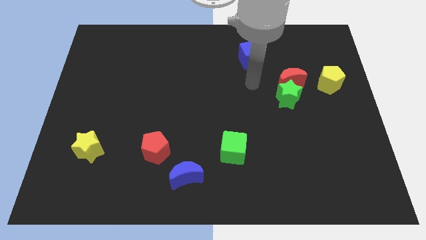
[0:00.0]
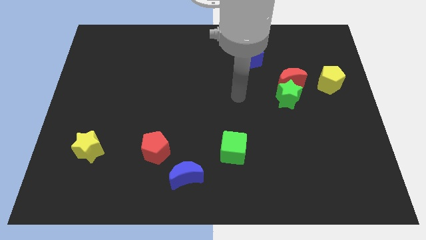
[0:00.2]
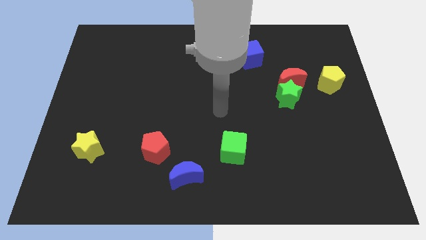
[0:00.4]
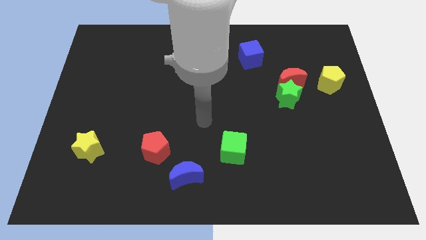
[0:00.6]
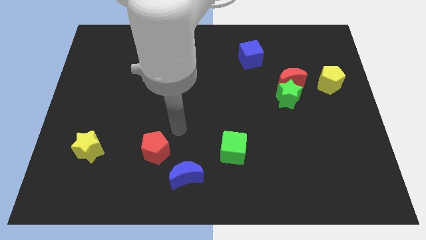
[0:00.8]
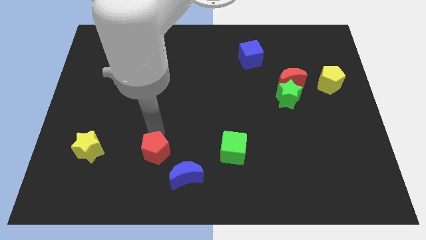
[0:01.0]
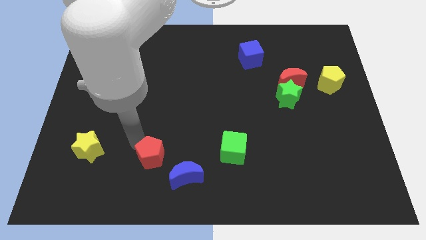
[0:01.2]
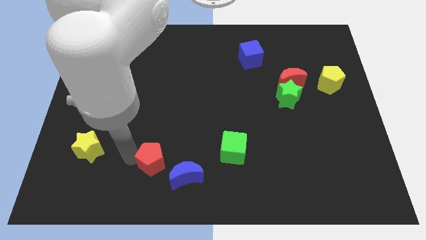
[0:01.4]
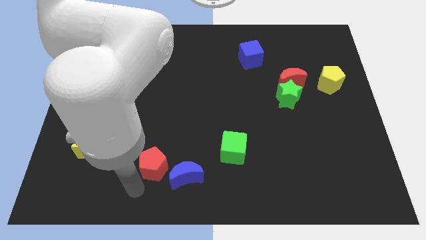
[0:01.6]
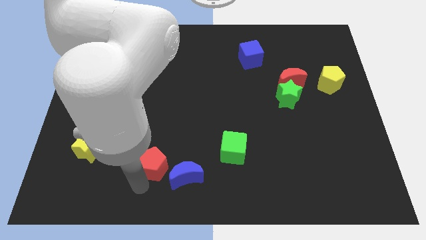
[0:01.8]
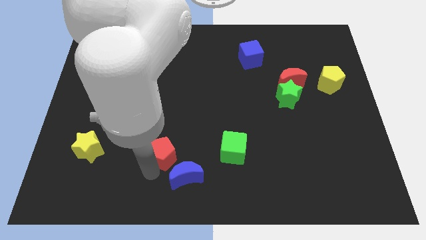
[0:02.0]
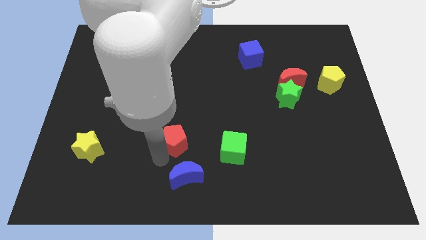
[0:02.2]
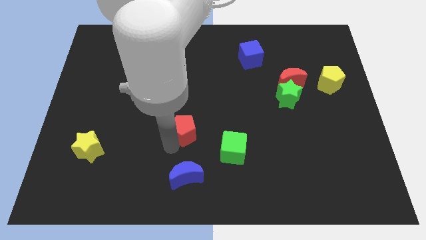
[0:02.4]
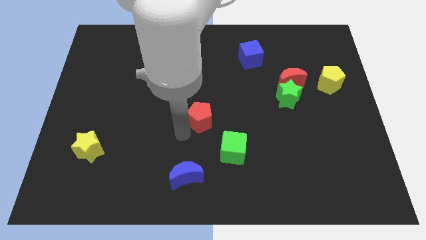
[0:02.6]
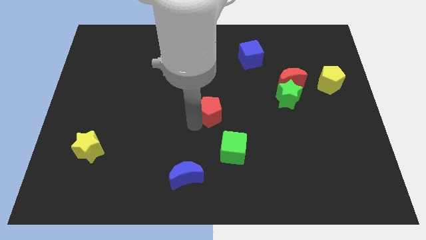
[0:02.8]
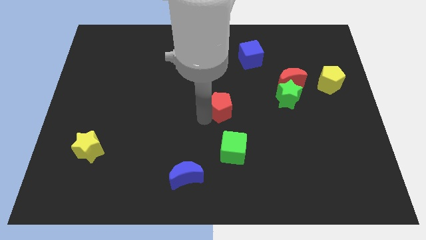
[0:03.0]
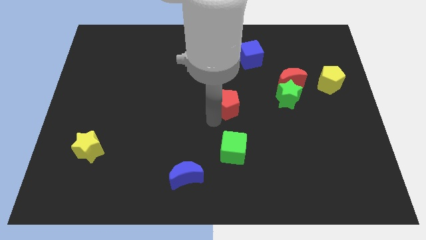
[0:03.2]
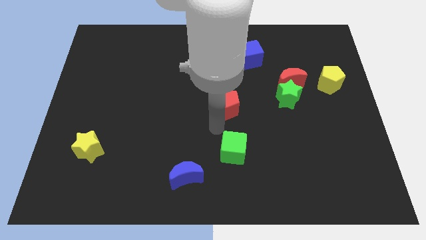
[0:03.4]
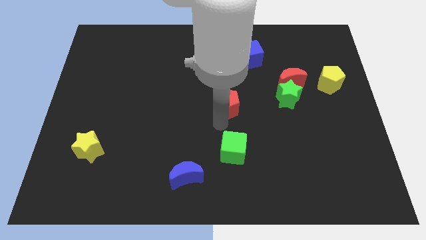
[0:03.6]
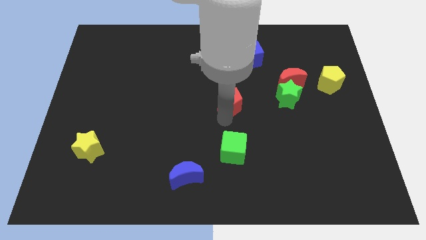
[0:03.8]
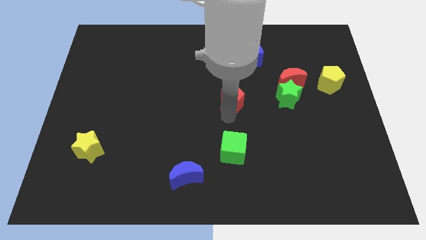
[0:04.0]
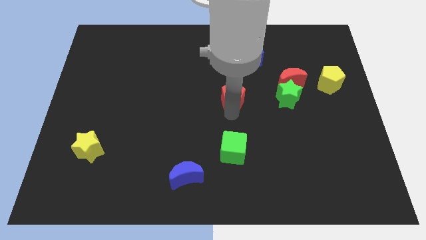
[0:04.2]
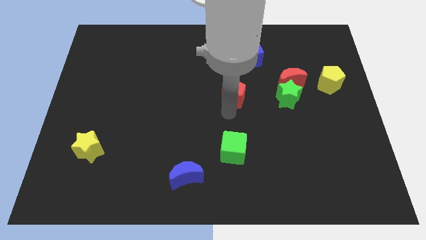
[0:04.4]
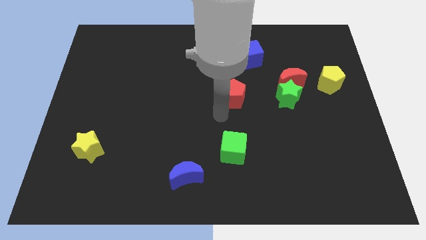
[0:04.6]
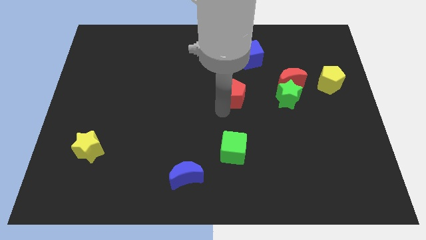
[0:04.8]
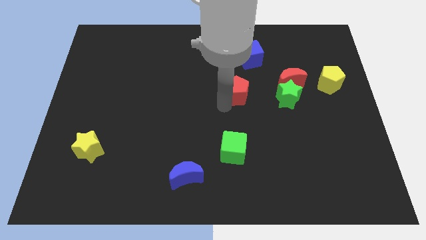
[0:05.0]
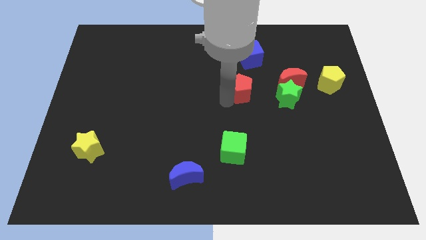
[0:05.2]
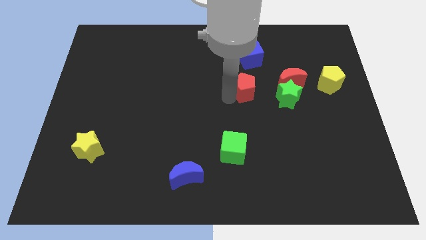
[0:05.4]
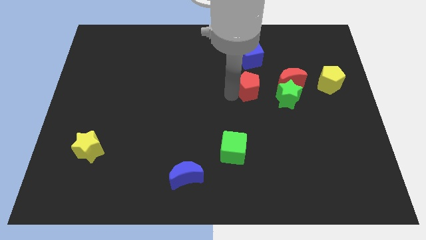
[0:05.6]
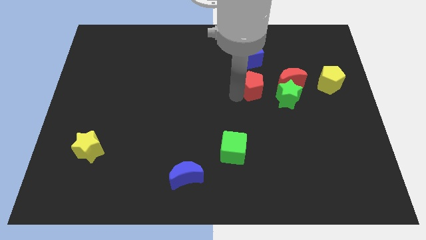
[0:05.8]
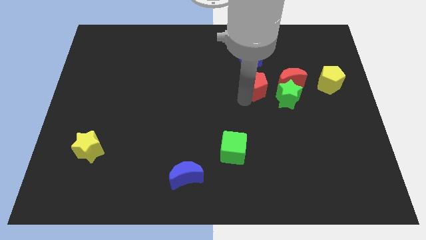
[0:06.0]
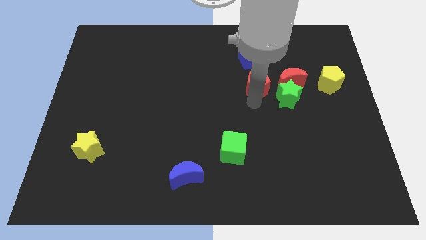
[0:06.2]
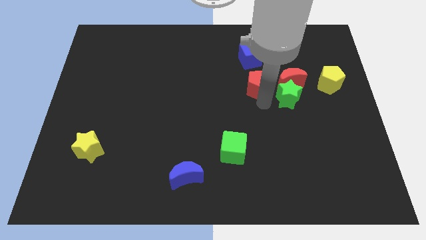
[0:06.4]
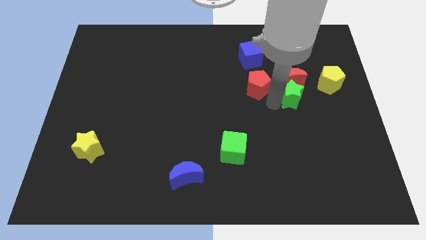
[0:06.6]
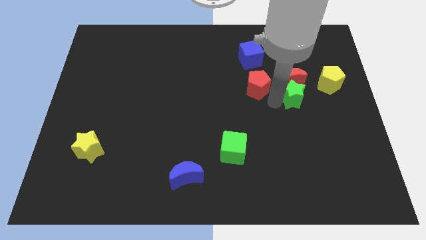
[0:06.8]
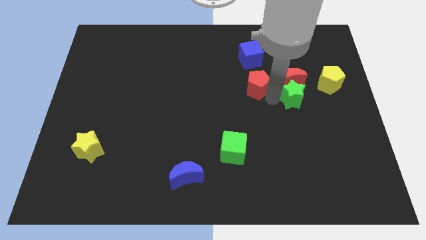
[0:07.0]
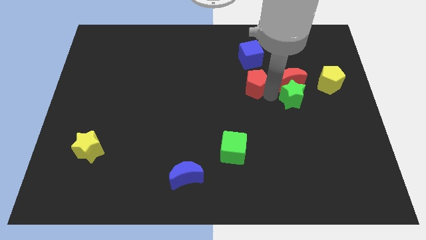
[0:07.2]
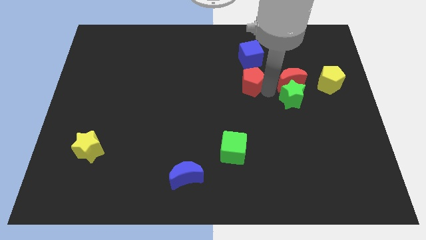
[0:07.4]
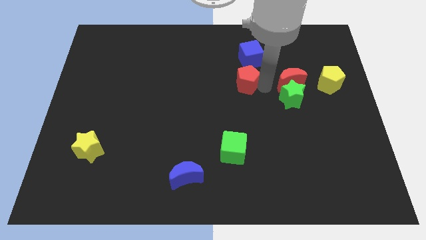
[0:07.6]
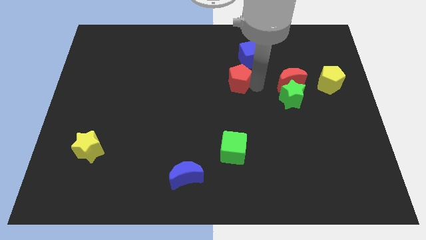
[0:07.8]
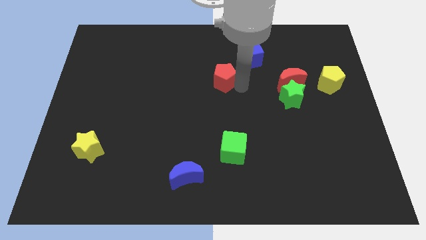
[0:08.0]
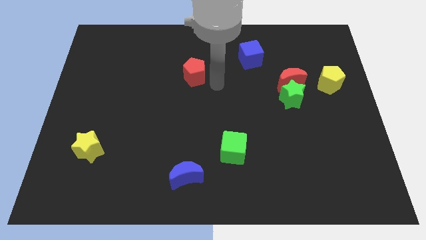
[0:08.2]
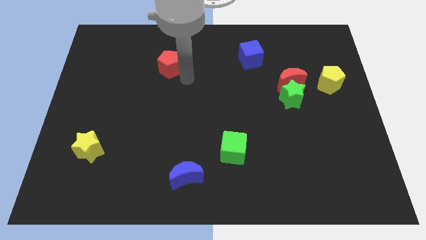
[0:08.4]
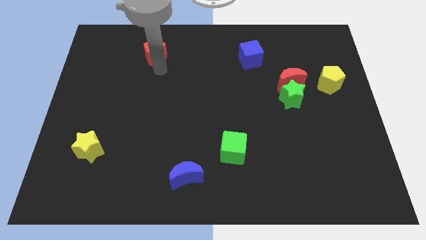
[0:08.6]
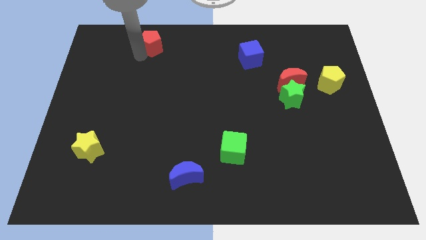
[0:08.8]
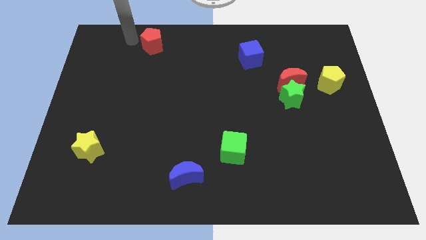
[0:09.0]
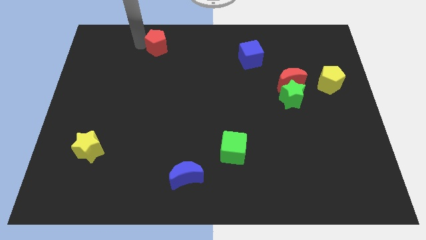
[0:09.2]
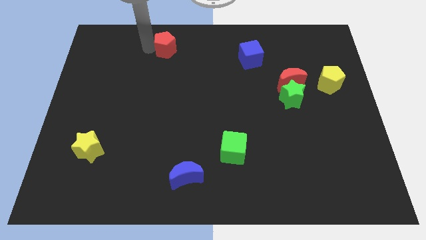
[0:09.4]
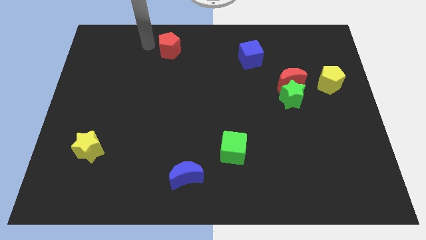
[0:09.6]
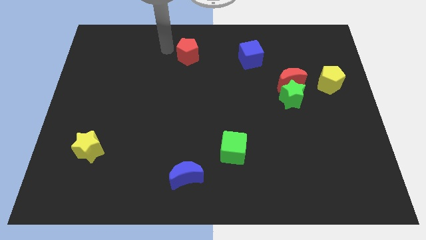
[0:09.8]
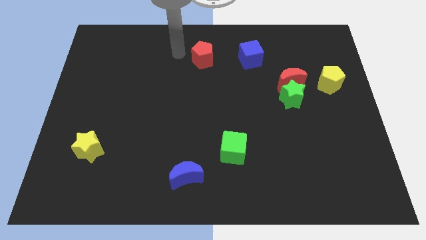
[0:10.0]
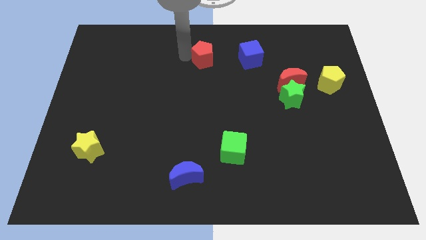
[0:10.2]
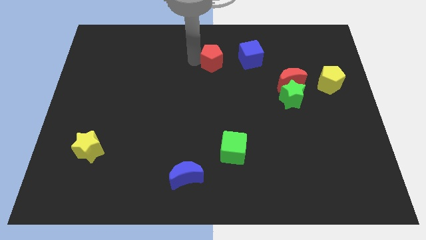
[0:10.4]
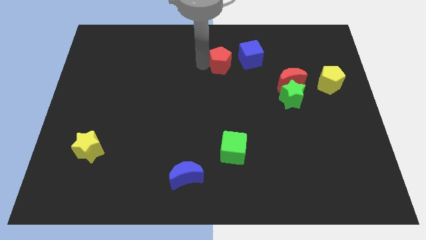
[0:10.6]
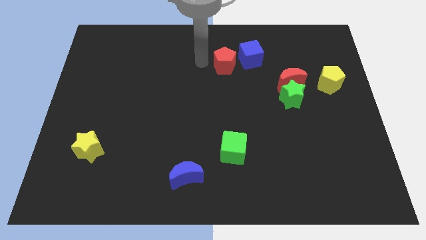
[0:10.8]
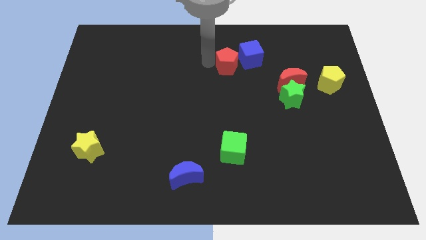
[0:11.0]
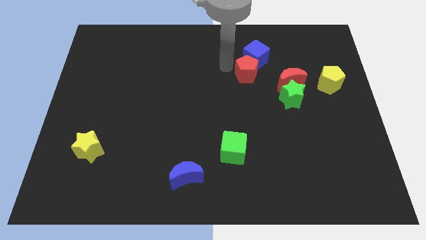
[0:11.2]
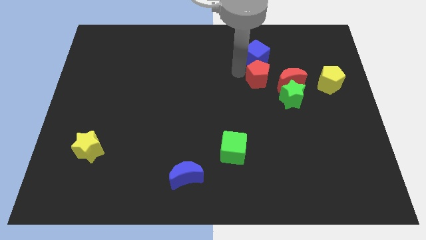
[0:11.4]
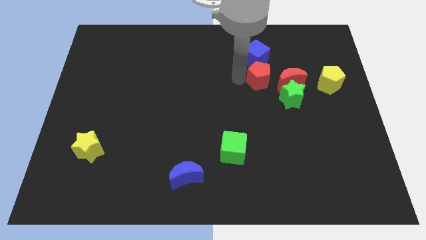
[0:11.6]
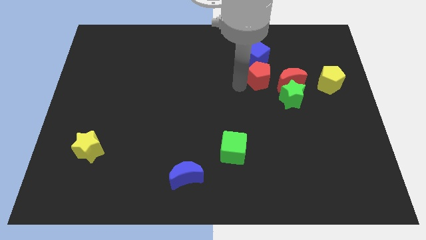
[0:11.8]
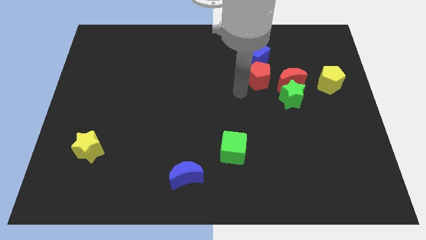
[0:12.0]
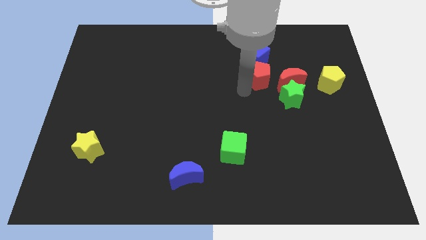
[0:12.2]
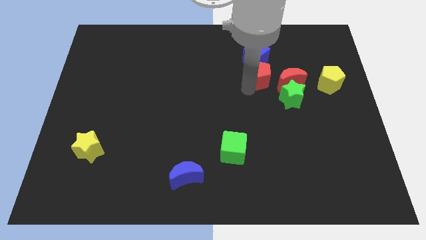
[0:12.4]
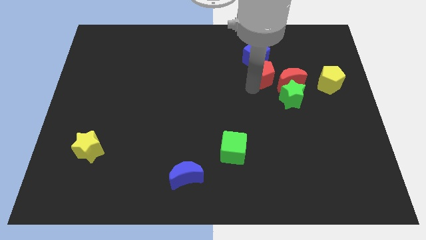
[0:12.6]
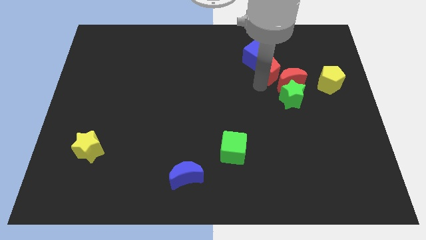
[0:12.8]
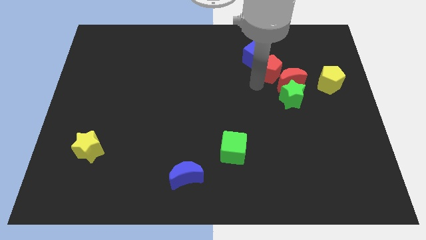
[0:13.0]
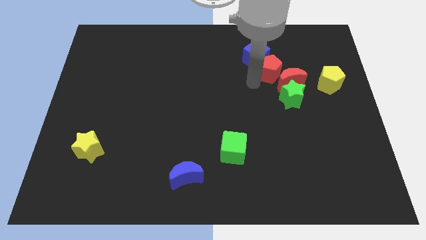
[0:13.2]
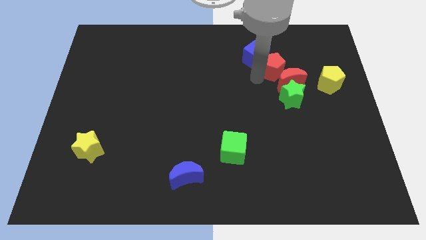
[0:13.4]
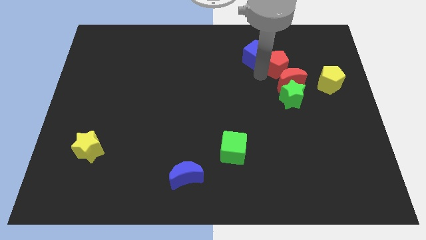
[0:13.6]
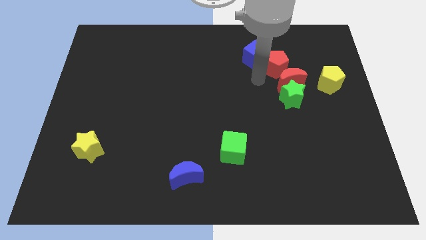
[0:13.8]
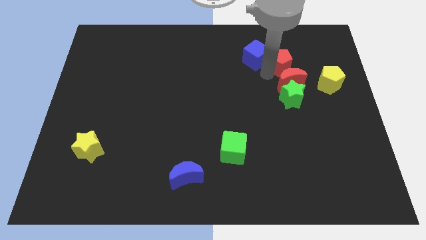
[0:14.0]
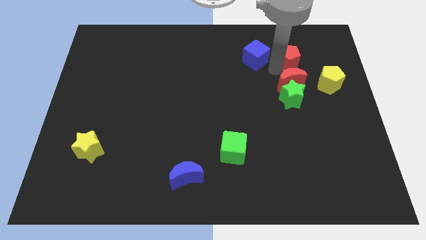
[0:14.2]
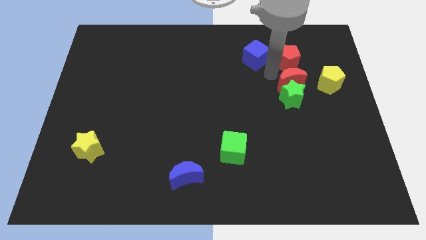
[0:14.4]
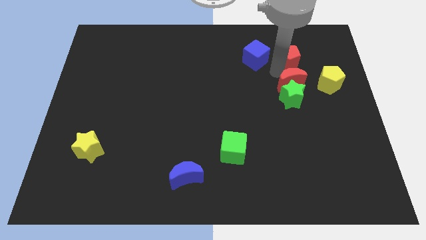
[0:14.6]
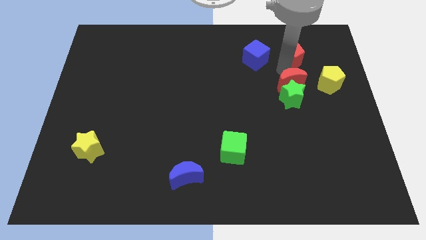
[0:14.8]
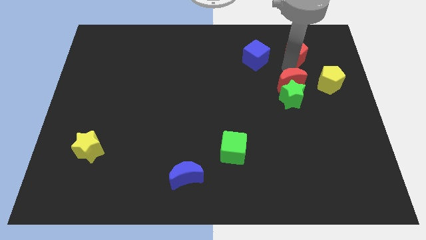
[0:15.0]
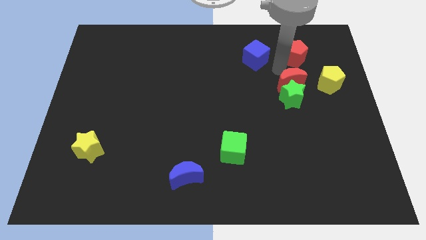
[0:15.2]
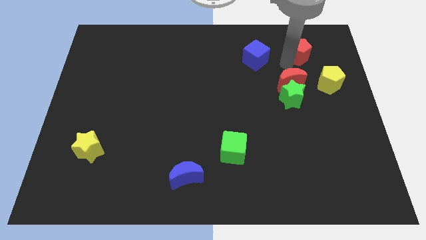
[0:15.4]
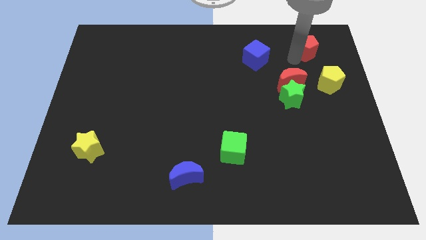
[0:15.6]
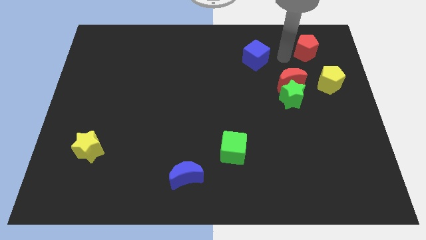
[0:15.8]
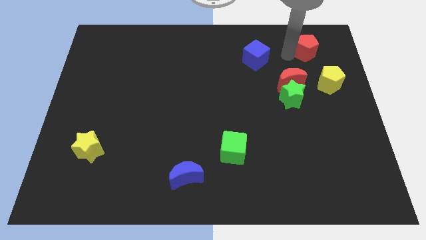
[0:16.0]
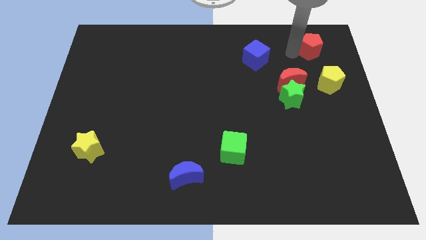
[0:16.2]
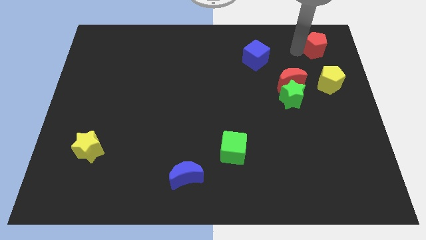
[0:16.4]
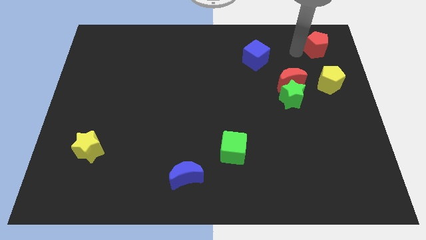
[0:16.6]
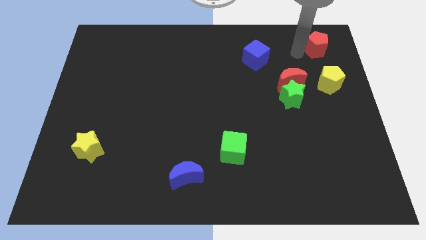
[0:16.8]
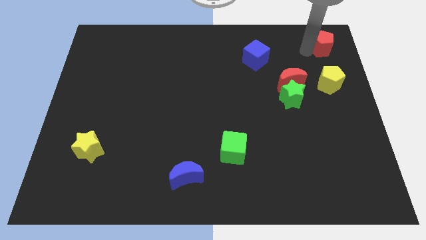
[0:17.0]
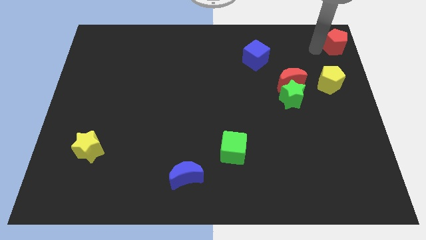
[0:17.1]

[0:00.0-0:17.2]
put the red pentagon to the top right of the board
